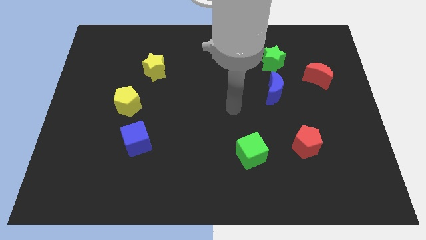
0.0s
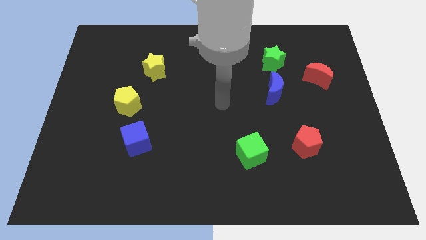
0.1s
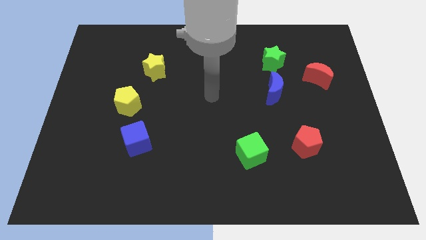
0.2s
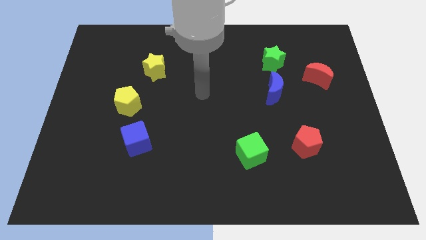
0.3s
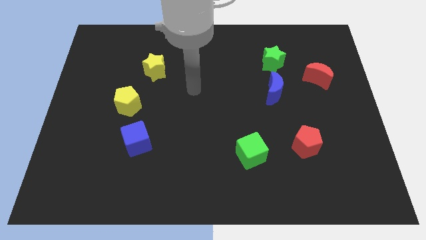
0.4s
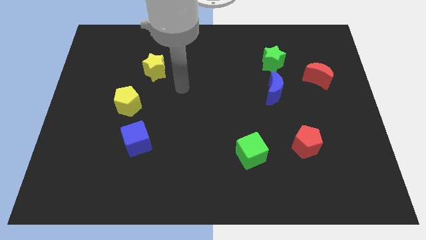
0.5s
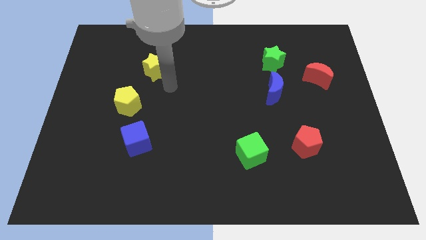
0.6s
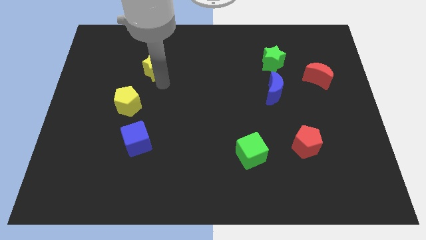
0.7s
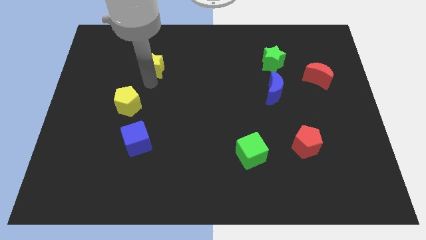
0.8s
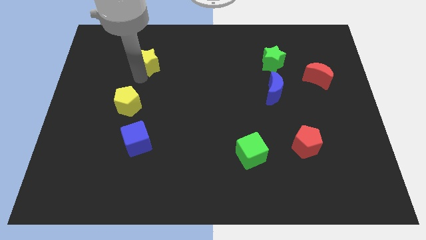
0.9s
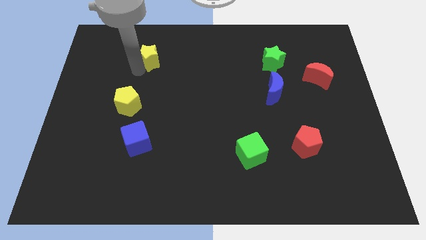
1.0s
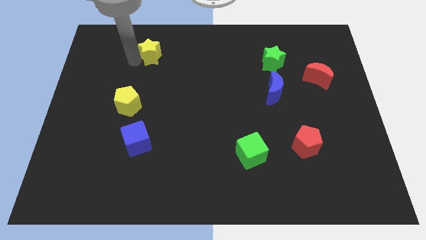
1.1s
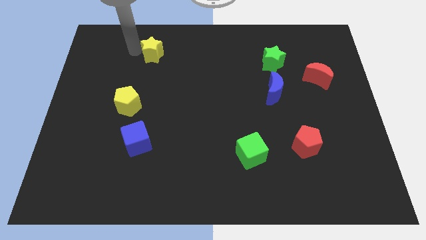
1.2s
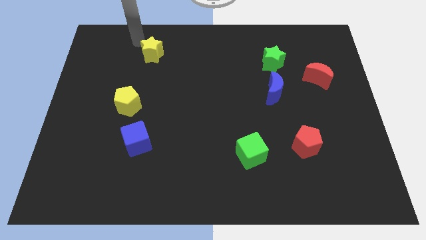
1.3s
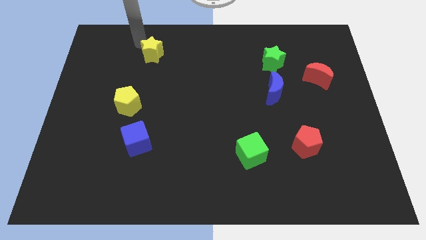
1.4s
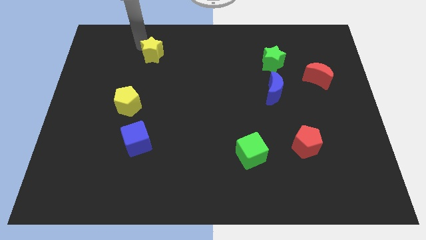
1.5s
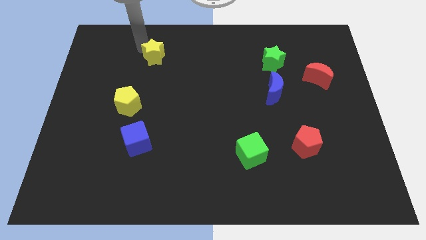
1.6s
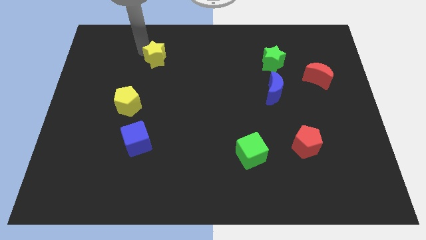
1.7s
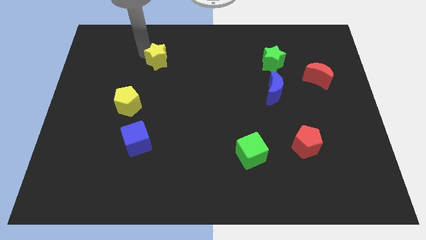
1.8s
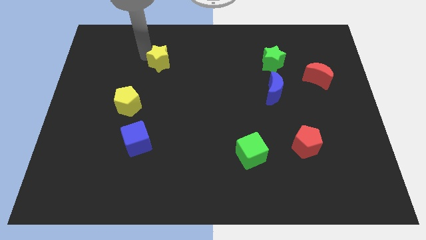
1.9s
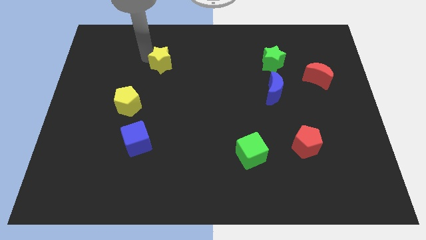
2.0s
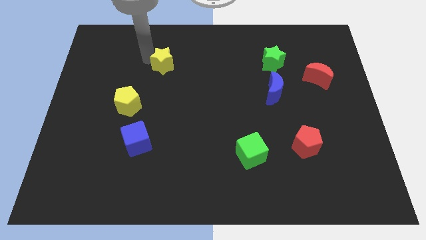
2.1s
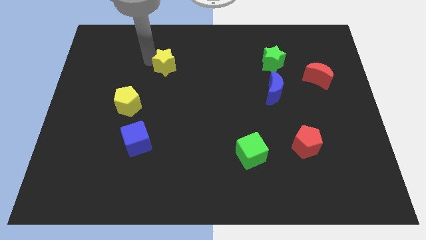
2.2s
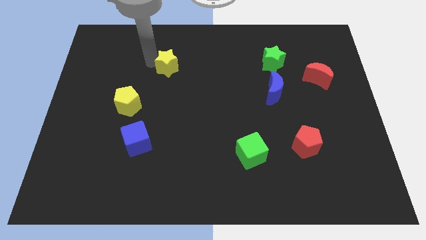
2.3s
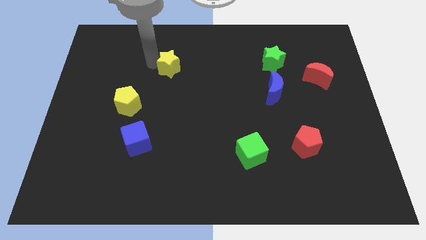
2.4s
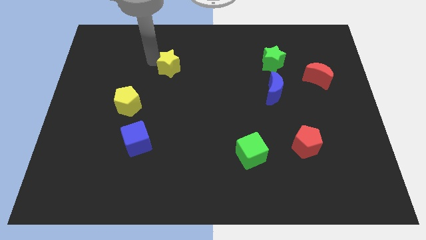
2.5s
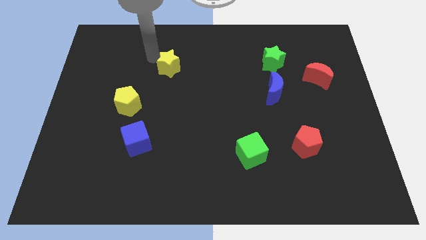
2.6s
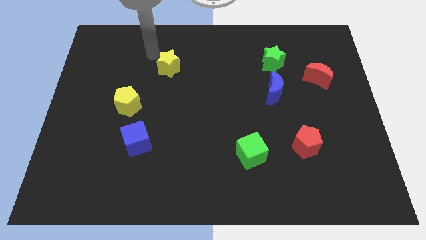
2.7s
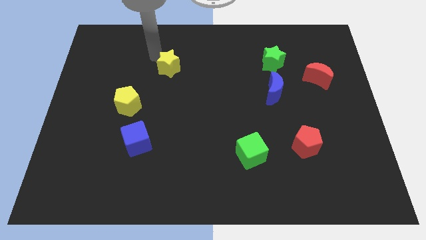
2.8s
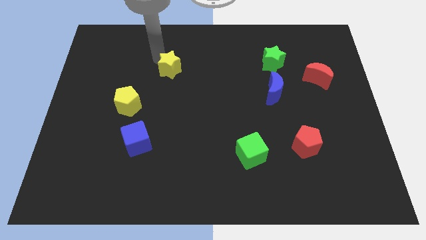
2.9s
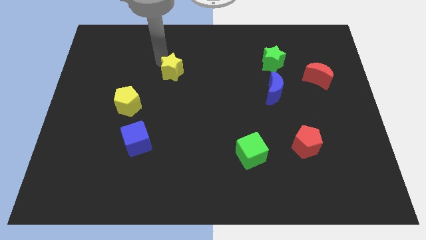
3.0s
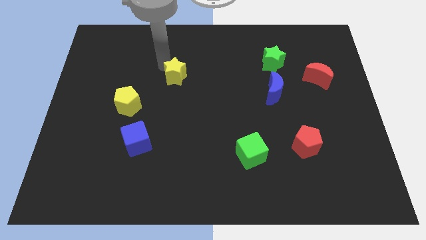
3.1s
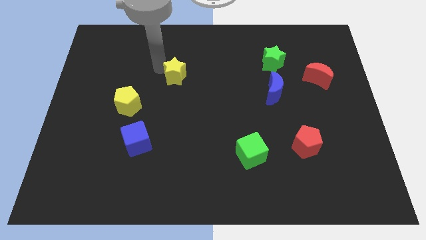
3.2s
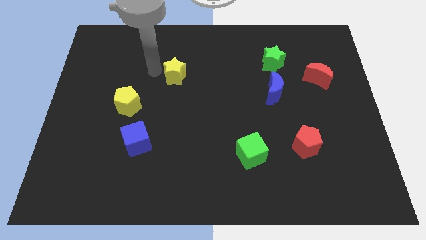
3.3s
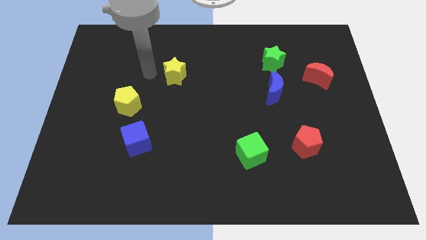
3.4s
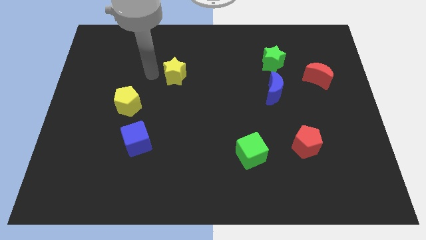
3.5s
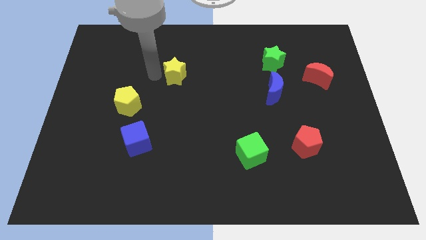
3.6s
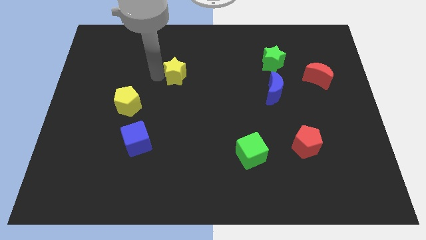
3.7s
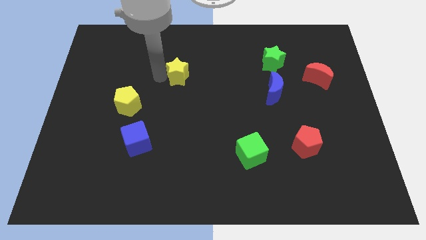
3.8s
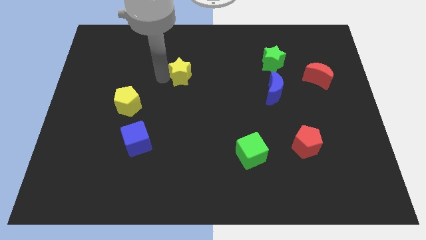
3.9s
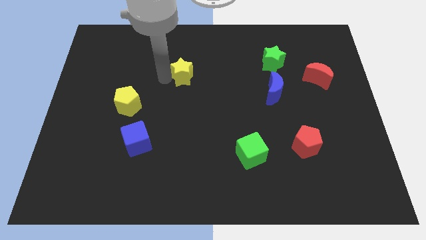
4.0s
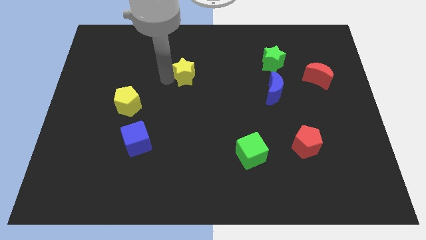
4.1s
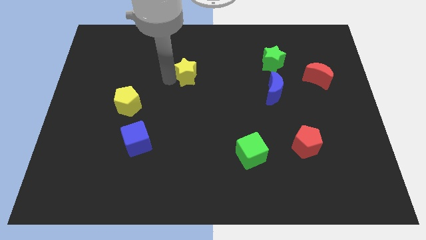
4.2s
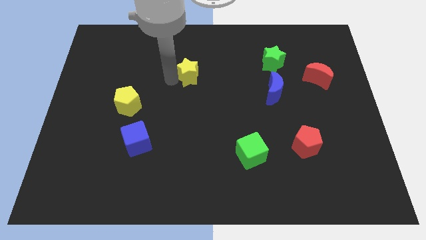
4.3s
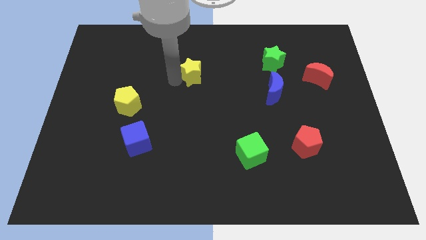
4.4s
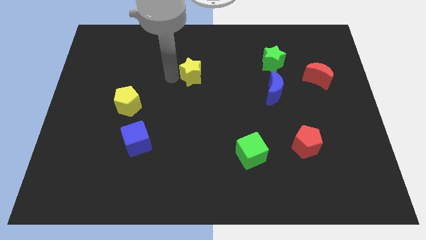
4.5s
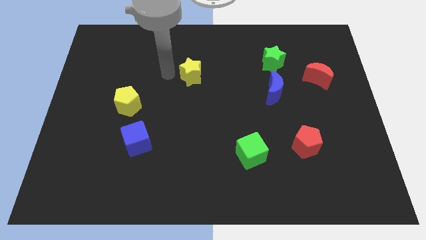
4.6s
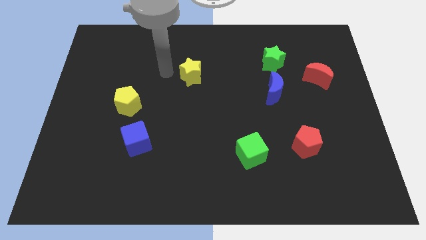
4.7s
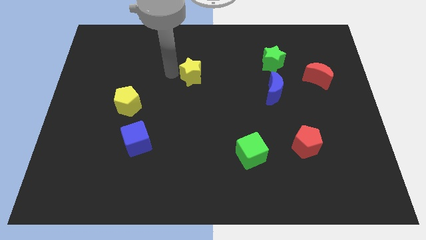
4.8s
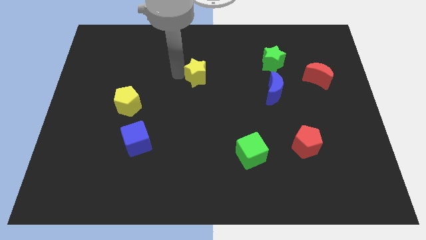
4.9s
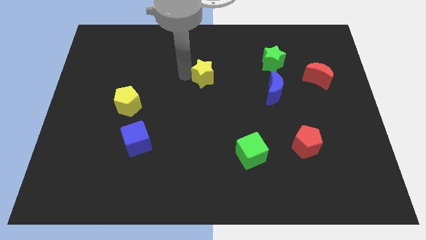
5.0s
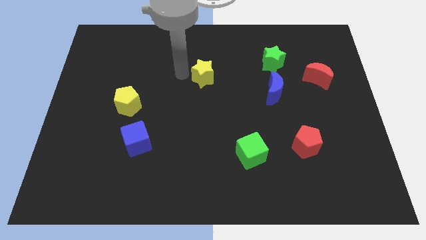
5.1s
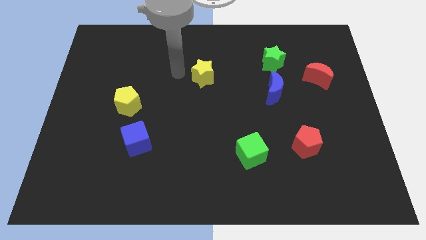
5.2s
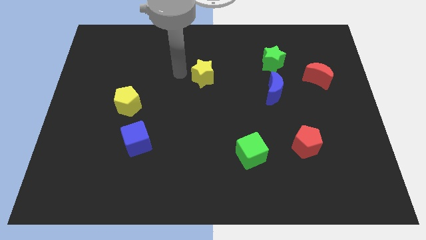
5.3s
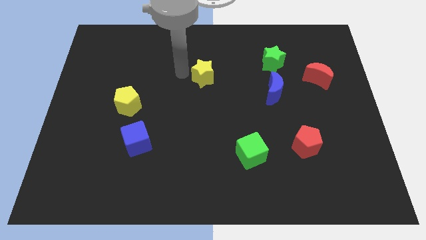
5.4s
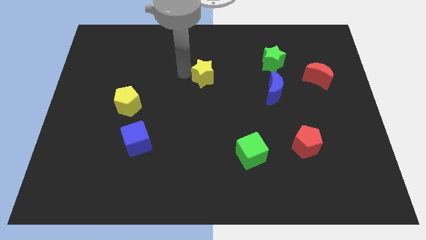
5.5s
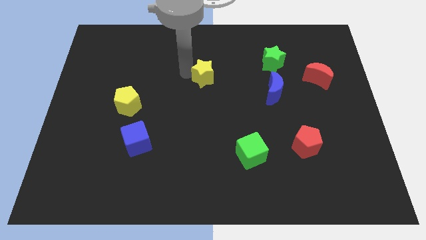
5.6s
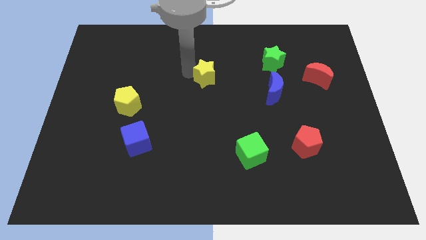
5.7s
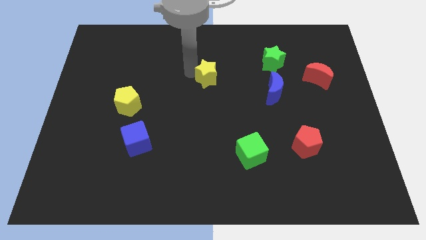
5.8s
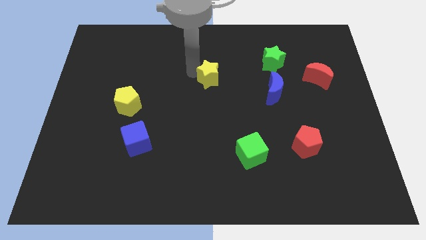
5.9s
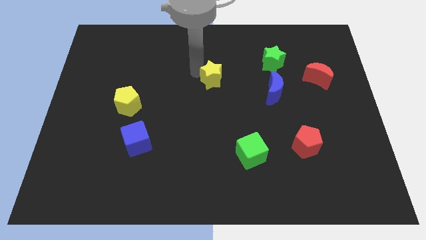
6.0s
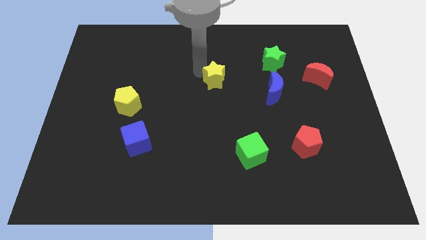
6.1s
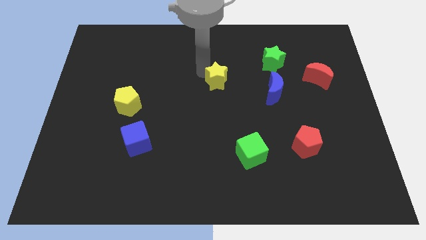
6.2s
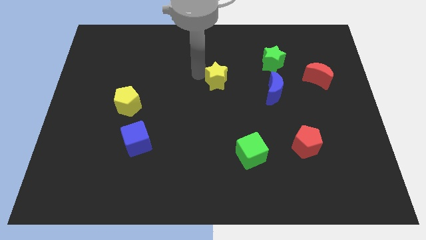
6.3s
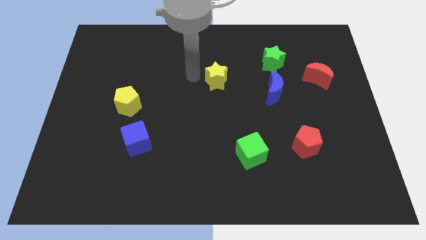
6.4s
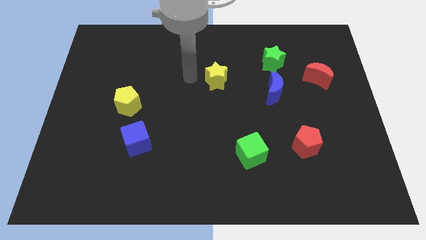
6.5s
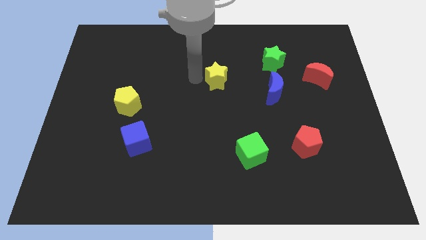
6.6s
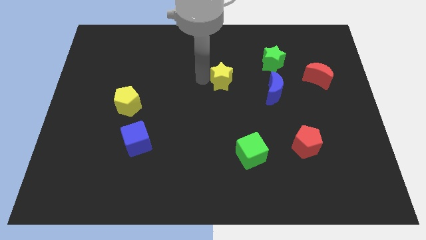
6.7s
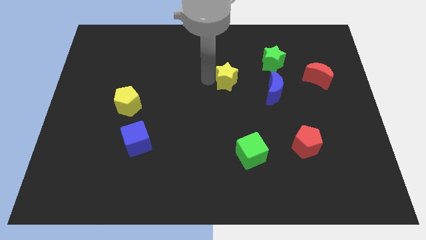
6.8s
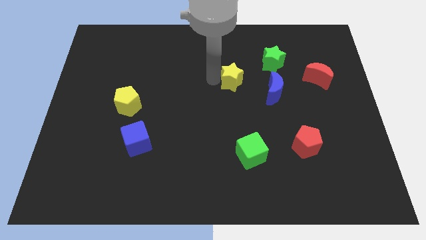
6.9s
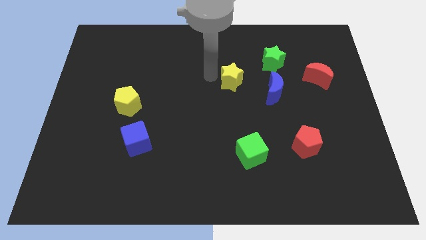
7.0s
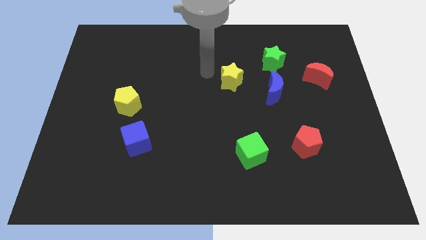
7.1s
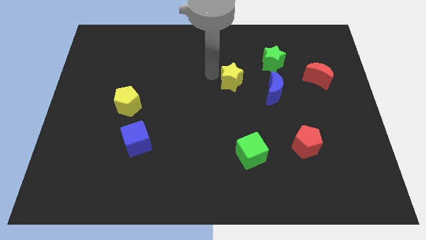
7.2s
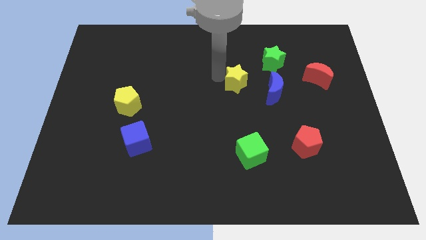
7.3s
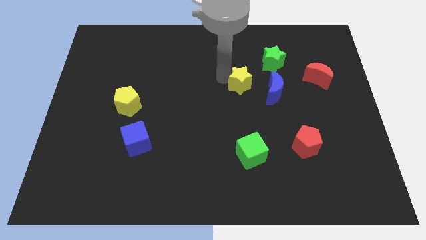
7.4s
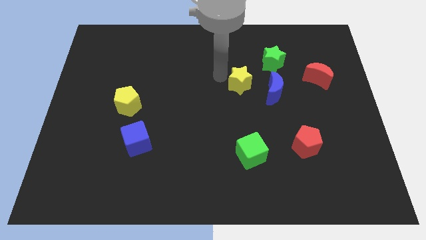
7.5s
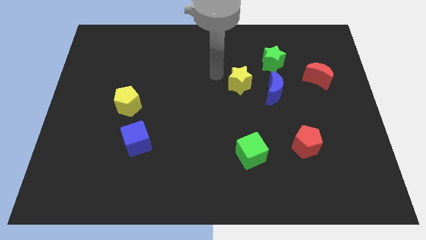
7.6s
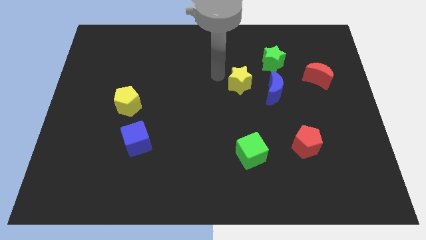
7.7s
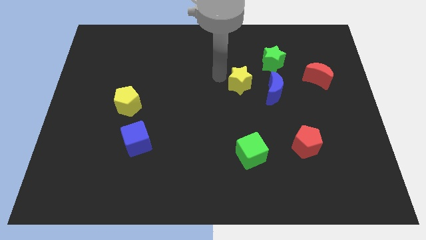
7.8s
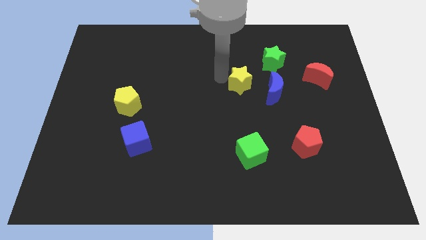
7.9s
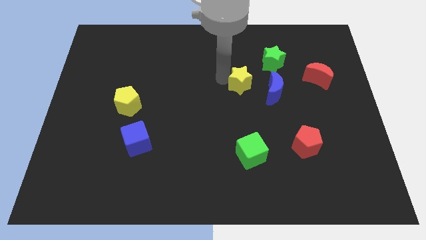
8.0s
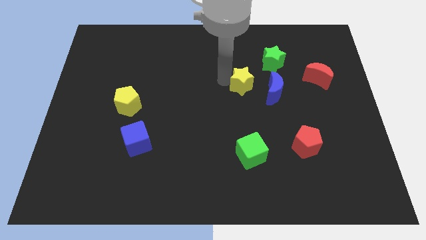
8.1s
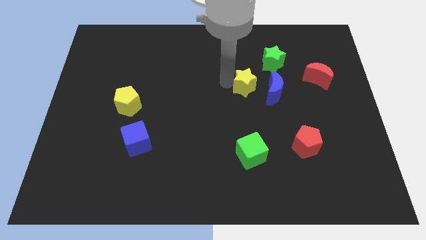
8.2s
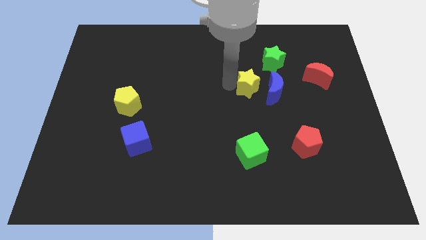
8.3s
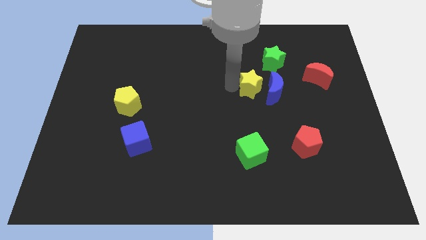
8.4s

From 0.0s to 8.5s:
push the yellow star towards the blue moon
